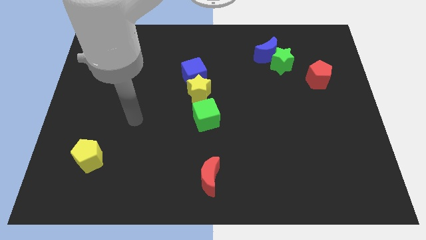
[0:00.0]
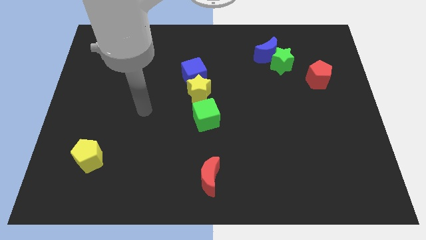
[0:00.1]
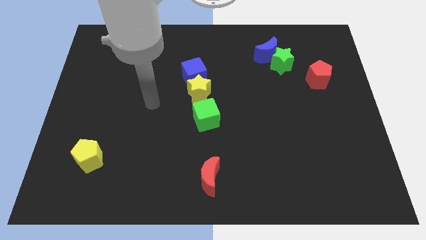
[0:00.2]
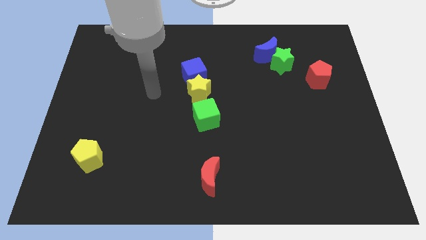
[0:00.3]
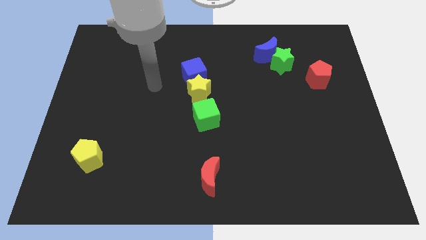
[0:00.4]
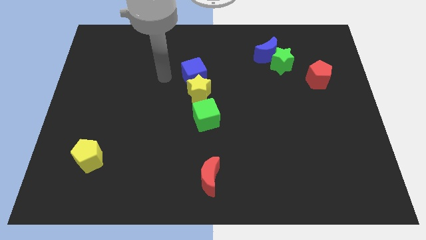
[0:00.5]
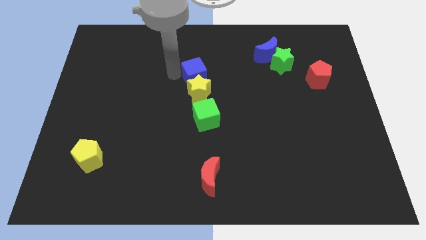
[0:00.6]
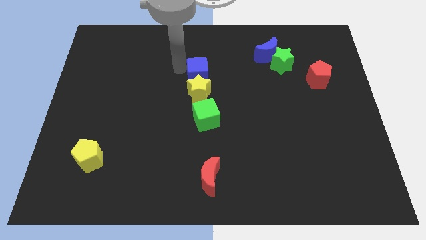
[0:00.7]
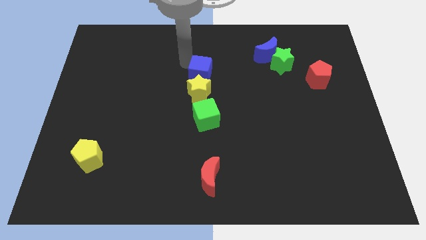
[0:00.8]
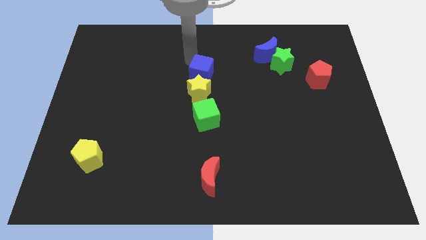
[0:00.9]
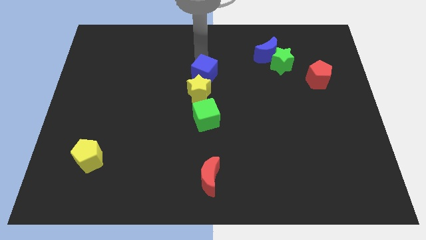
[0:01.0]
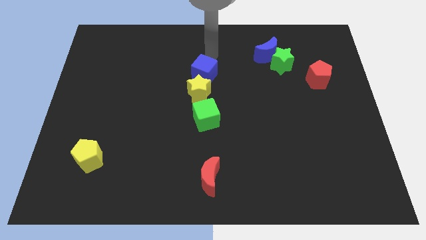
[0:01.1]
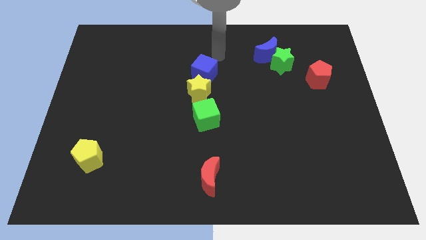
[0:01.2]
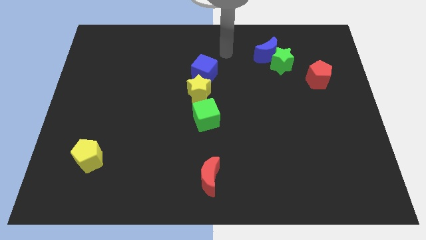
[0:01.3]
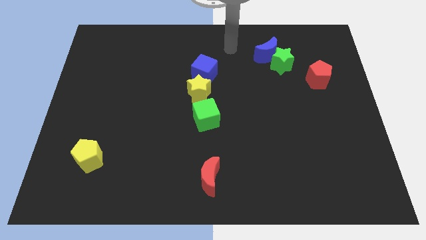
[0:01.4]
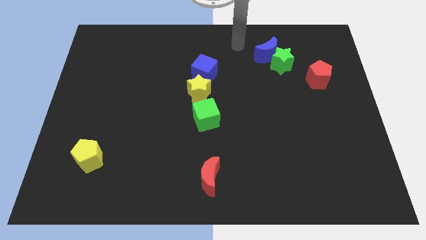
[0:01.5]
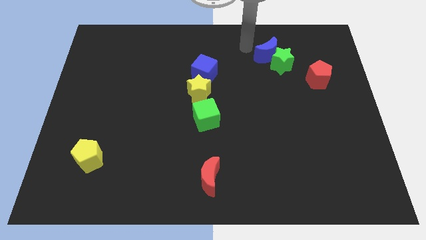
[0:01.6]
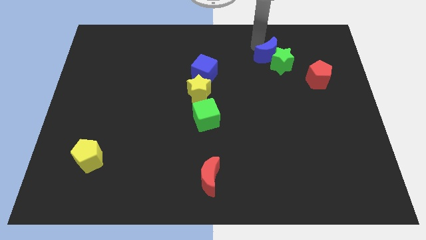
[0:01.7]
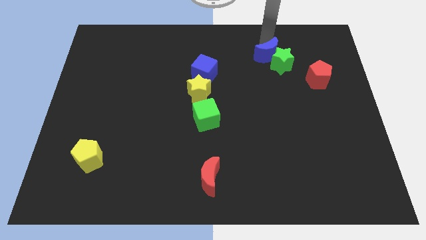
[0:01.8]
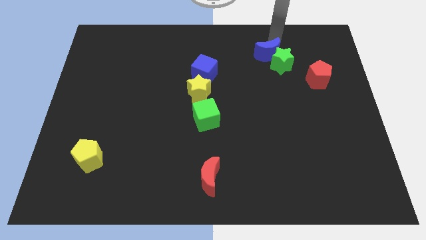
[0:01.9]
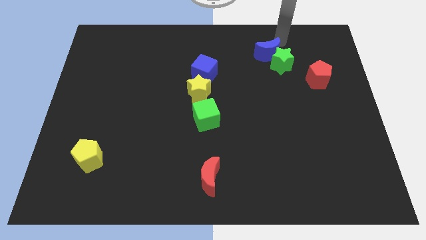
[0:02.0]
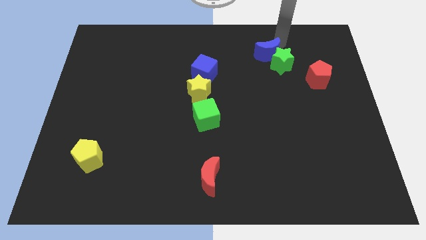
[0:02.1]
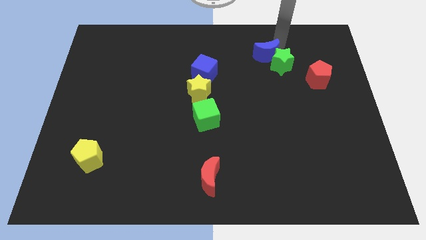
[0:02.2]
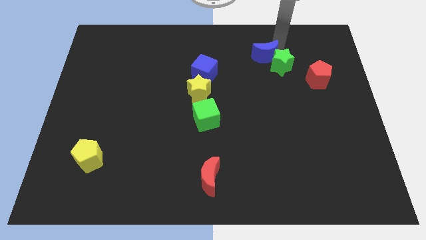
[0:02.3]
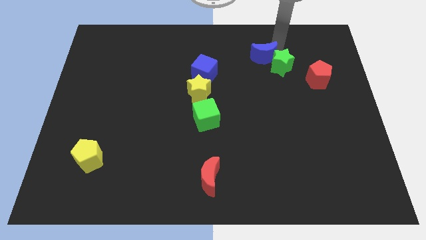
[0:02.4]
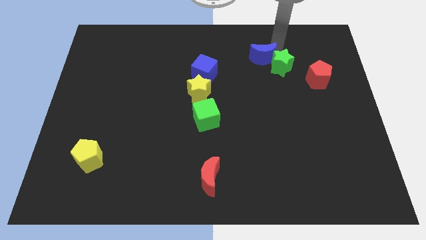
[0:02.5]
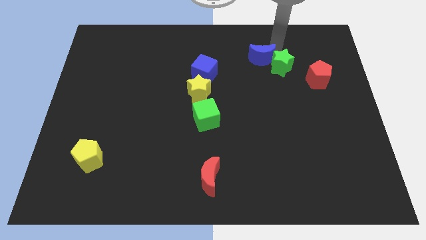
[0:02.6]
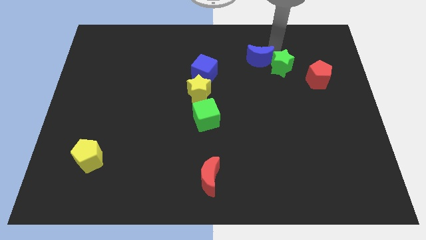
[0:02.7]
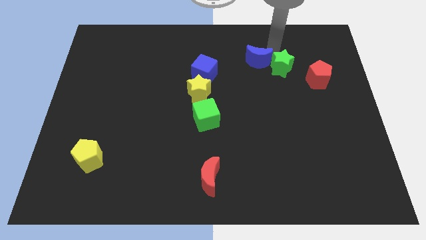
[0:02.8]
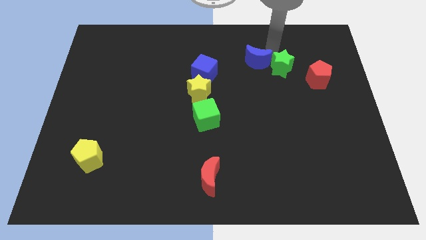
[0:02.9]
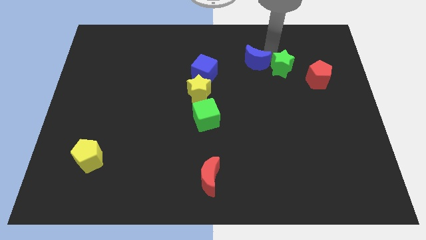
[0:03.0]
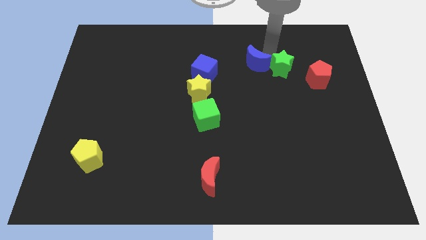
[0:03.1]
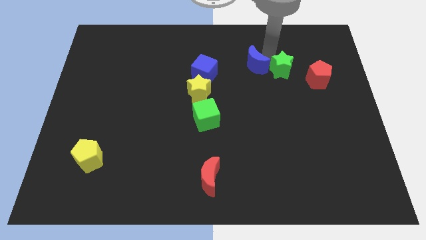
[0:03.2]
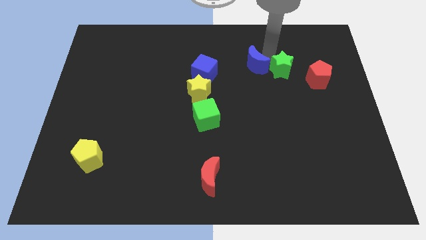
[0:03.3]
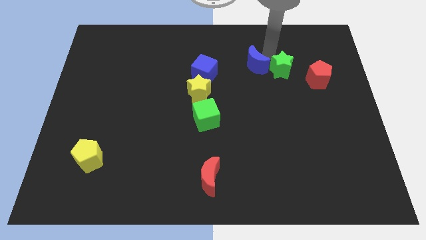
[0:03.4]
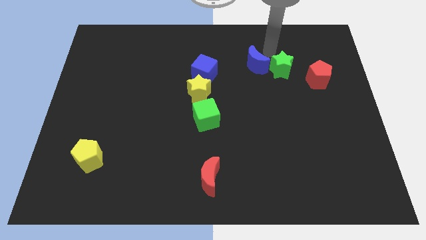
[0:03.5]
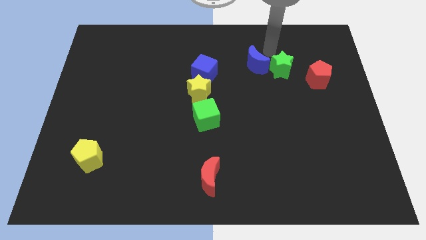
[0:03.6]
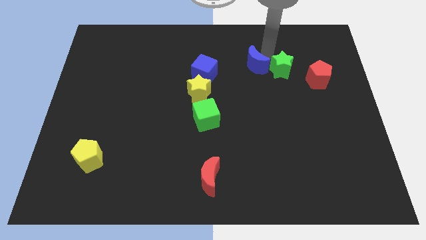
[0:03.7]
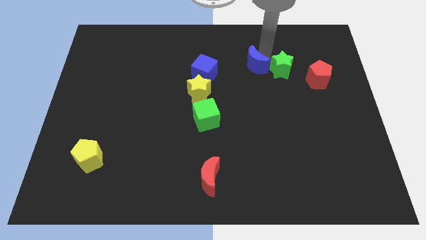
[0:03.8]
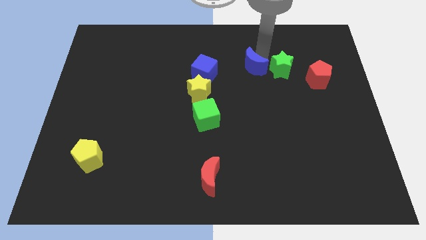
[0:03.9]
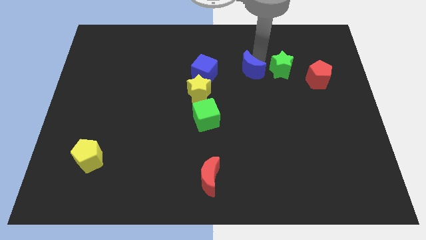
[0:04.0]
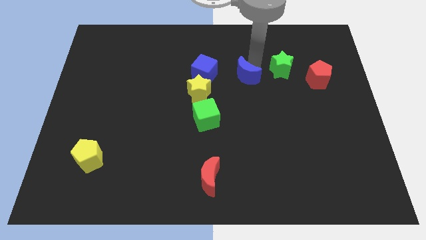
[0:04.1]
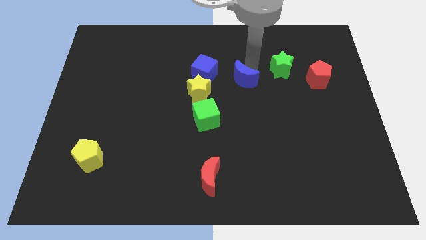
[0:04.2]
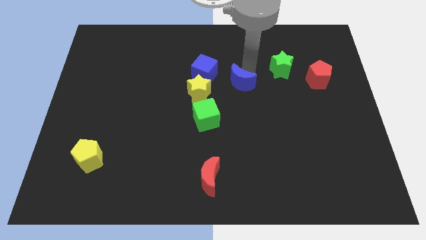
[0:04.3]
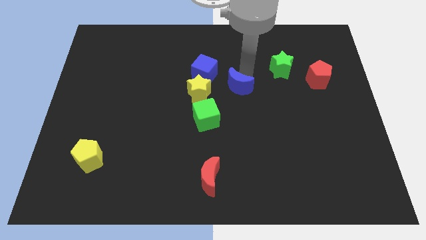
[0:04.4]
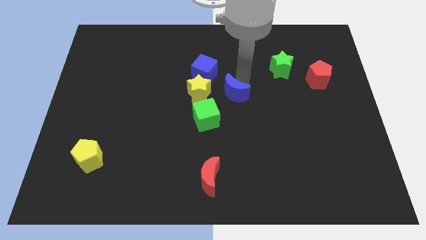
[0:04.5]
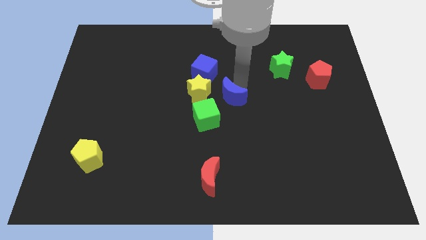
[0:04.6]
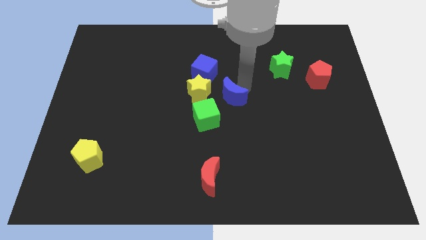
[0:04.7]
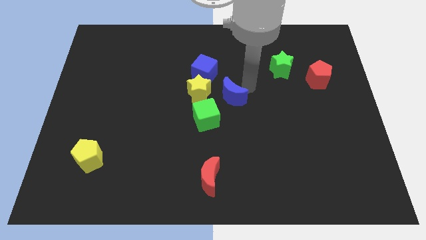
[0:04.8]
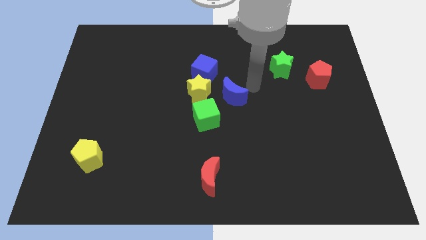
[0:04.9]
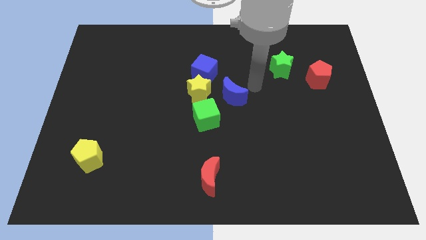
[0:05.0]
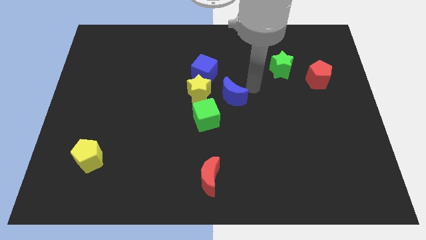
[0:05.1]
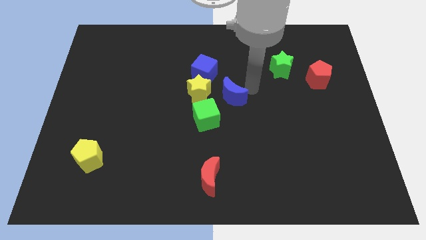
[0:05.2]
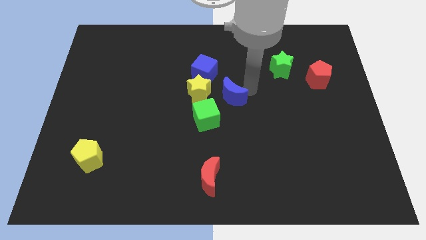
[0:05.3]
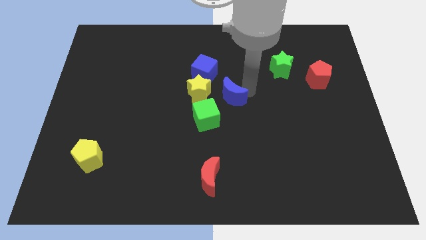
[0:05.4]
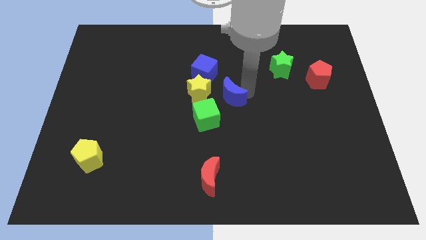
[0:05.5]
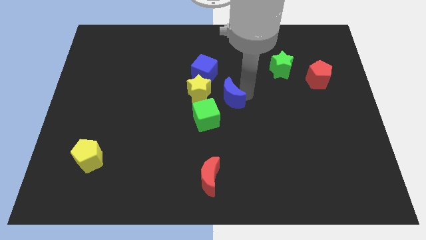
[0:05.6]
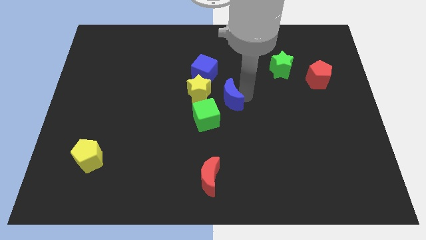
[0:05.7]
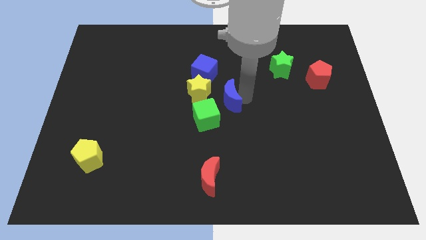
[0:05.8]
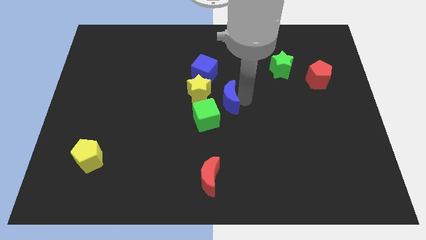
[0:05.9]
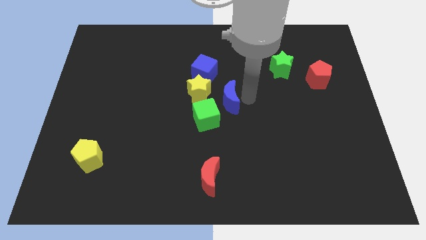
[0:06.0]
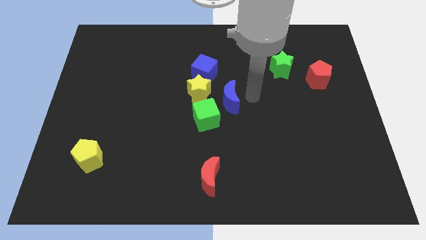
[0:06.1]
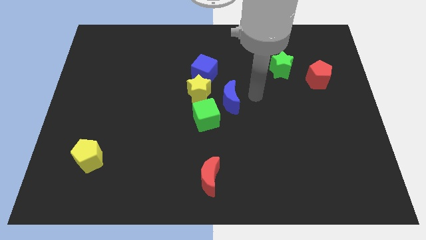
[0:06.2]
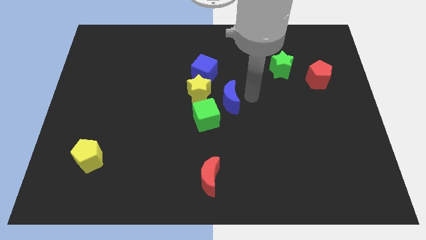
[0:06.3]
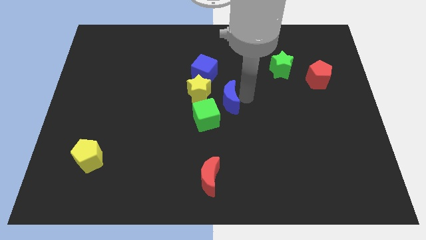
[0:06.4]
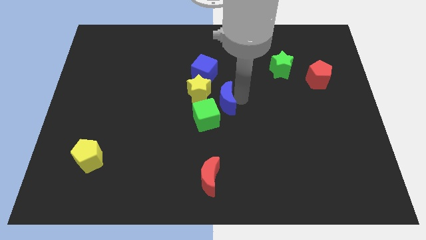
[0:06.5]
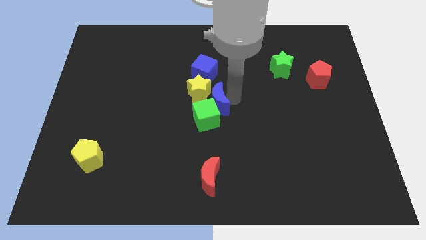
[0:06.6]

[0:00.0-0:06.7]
push the blue moon close to the green cube

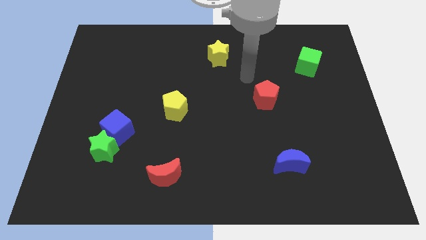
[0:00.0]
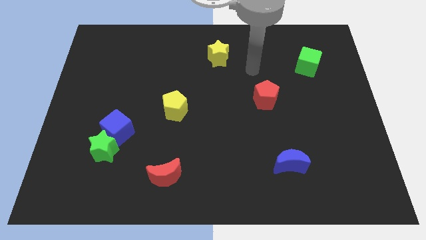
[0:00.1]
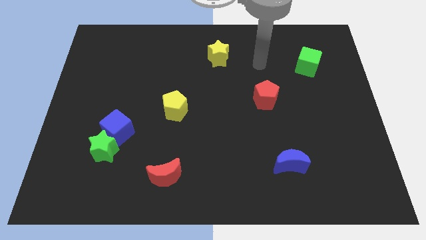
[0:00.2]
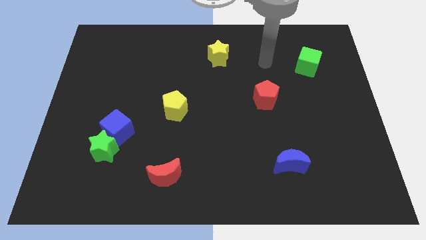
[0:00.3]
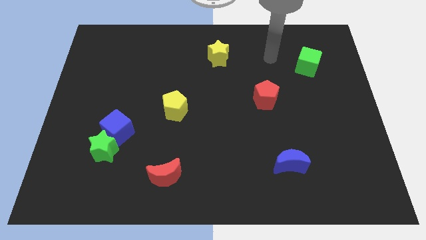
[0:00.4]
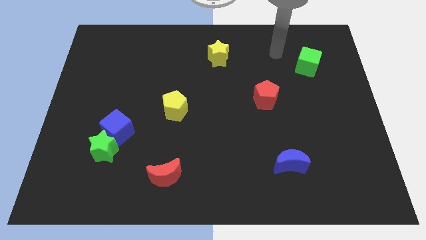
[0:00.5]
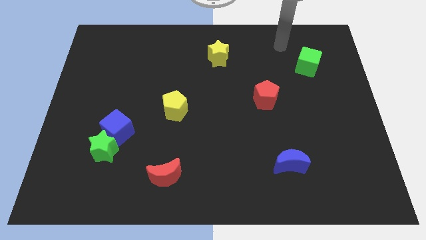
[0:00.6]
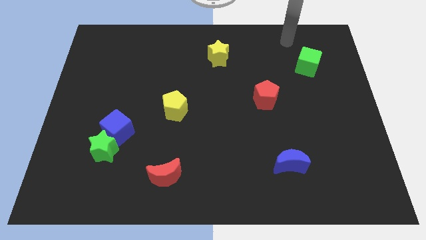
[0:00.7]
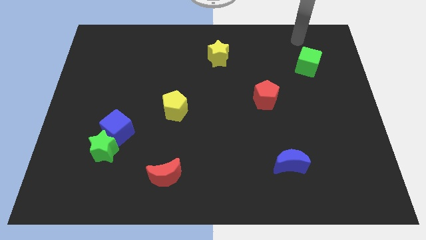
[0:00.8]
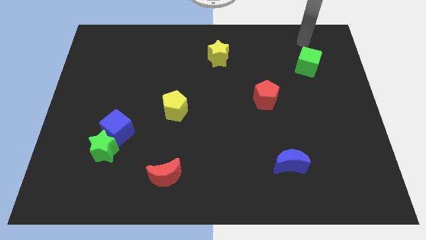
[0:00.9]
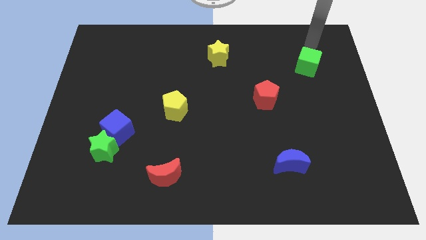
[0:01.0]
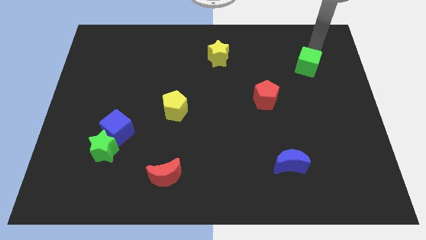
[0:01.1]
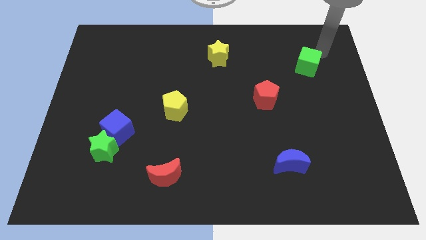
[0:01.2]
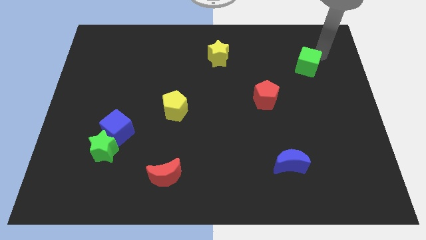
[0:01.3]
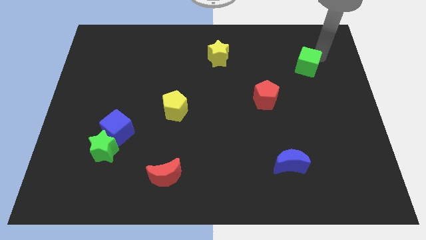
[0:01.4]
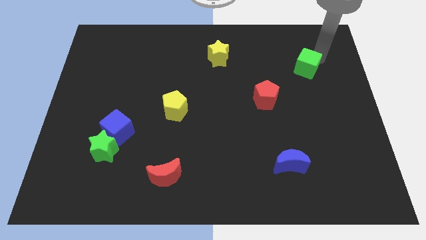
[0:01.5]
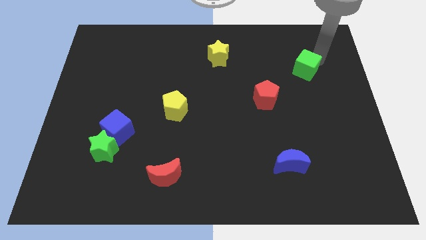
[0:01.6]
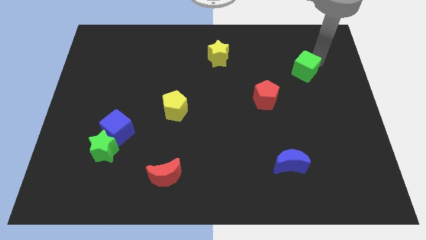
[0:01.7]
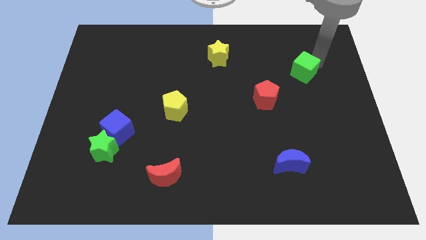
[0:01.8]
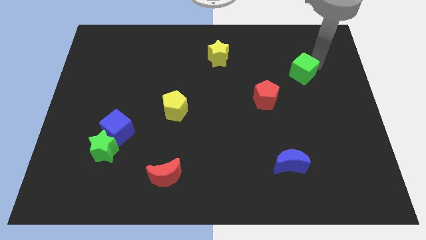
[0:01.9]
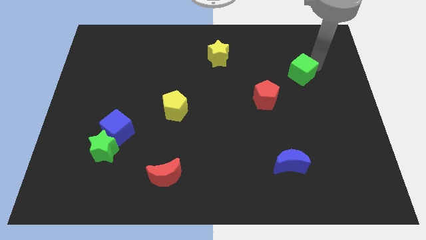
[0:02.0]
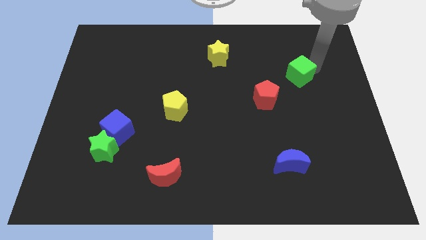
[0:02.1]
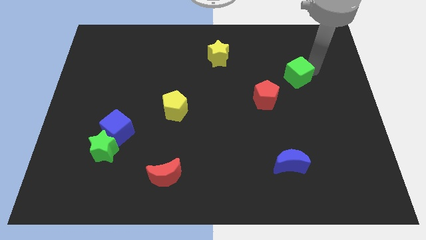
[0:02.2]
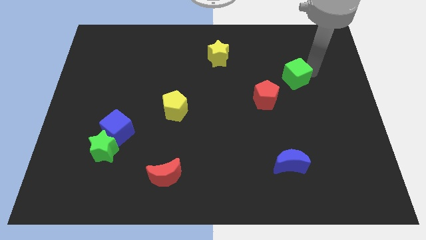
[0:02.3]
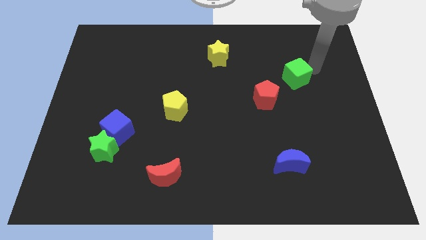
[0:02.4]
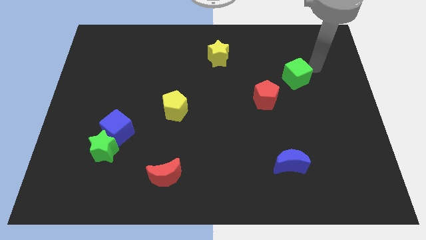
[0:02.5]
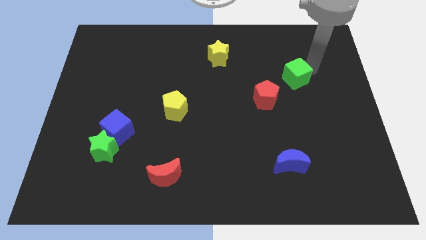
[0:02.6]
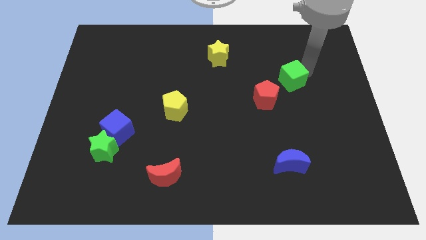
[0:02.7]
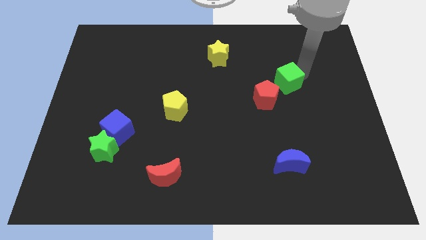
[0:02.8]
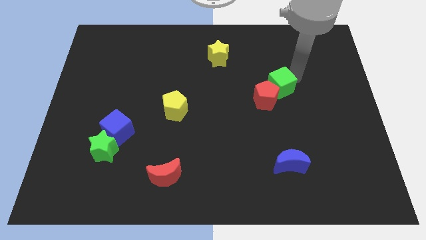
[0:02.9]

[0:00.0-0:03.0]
move the green cube close to the red pentagon
